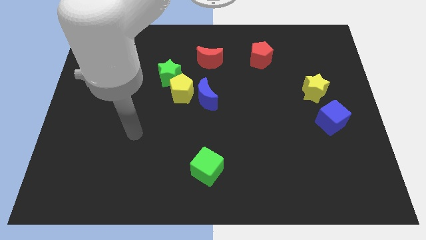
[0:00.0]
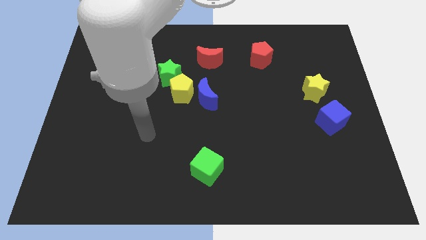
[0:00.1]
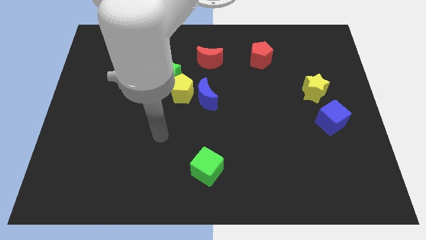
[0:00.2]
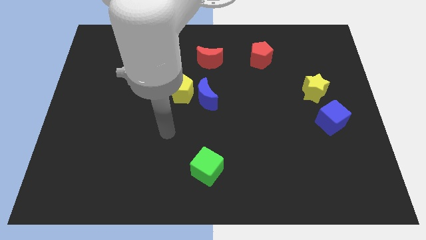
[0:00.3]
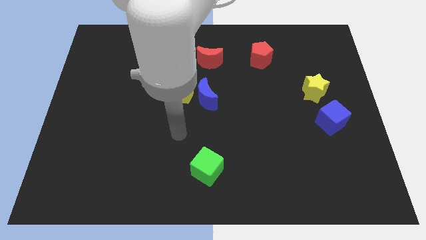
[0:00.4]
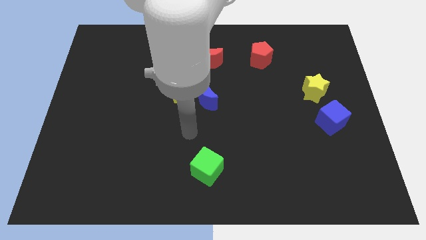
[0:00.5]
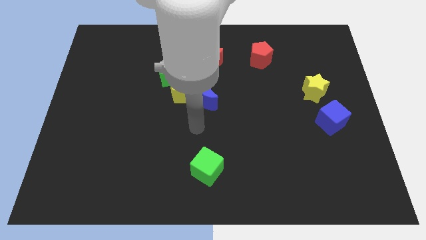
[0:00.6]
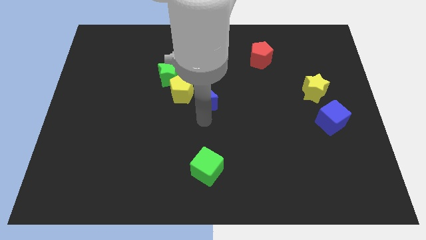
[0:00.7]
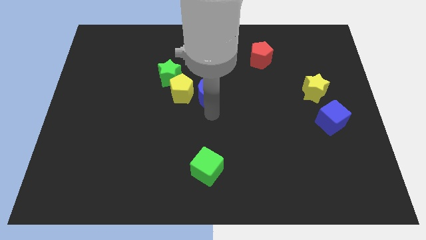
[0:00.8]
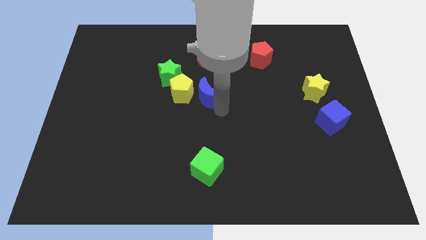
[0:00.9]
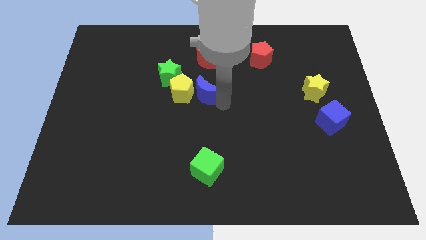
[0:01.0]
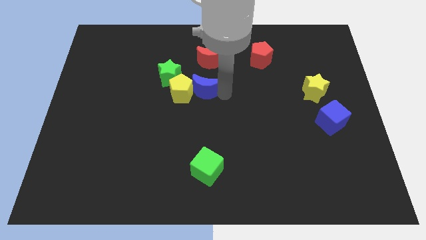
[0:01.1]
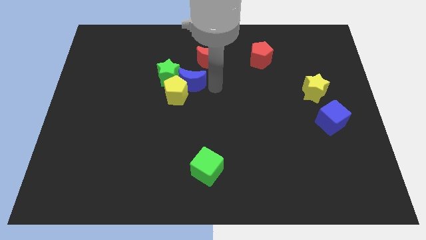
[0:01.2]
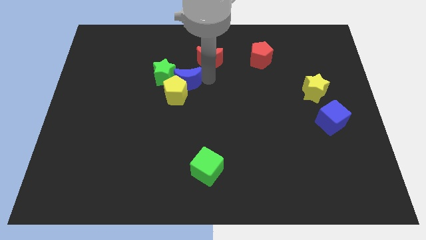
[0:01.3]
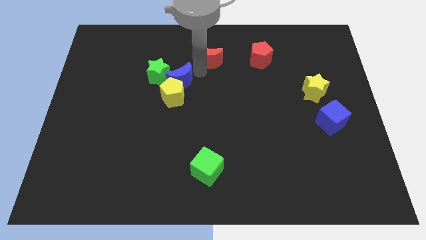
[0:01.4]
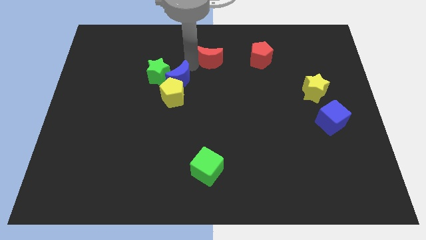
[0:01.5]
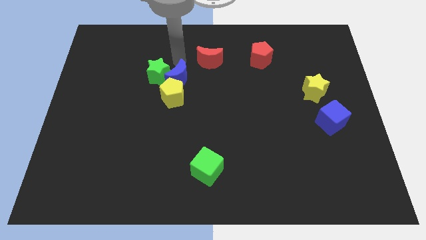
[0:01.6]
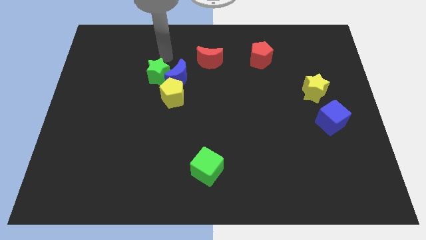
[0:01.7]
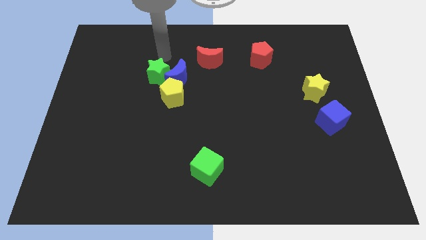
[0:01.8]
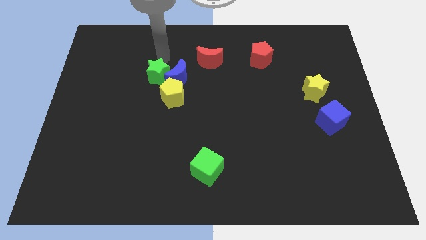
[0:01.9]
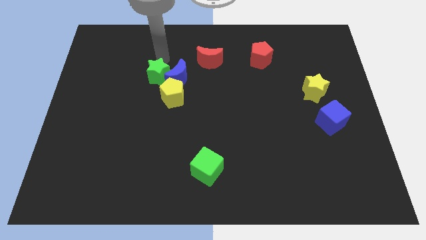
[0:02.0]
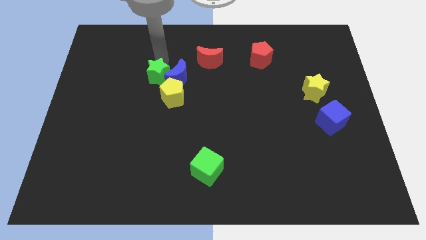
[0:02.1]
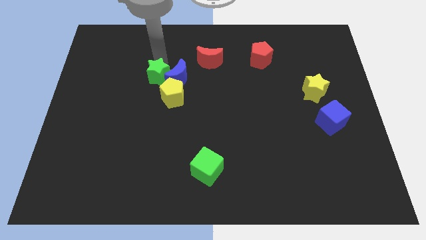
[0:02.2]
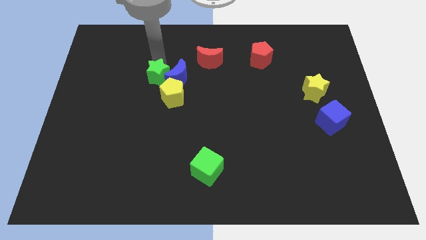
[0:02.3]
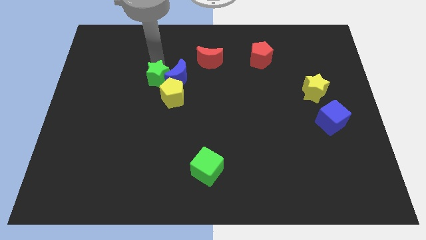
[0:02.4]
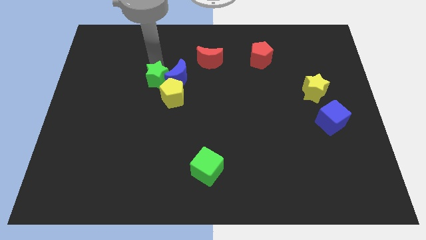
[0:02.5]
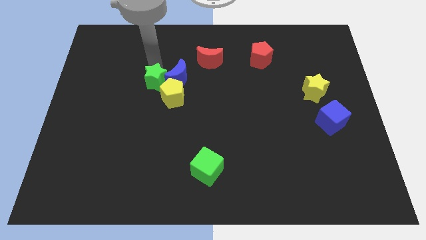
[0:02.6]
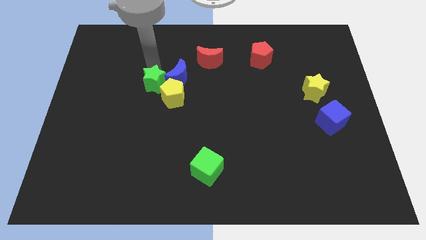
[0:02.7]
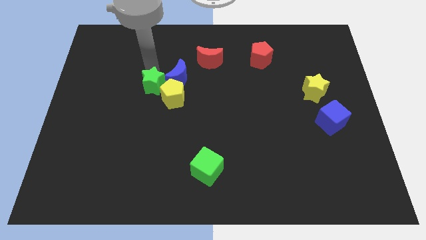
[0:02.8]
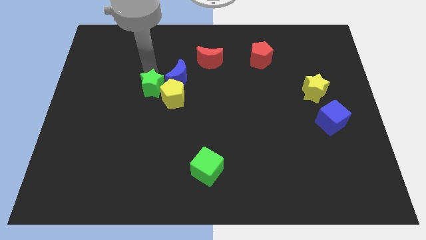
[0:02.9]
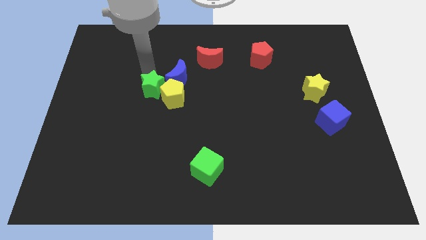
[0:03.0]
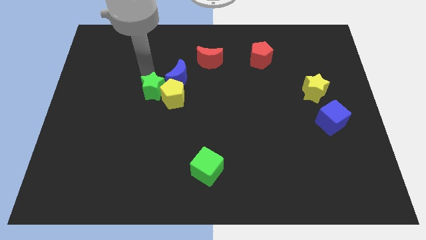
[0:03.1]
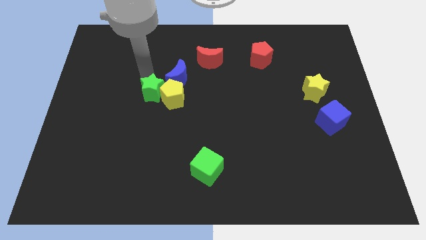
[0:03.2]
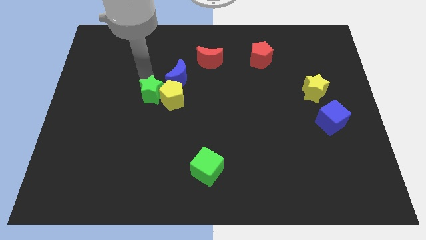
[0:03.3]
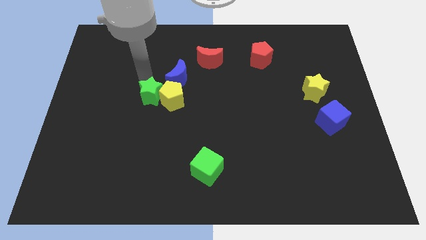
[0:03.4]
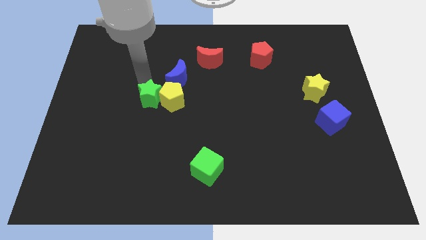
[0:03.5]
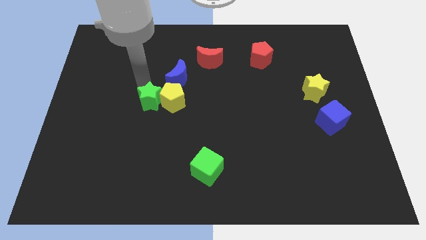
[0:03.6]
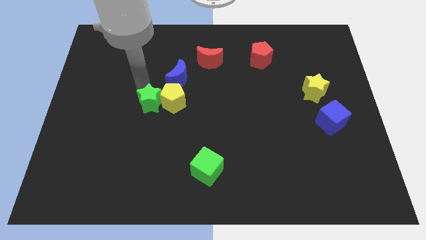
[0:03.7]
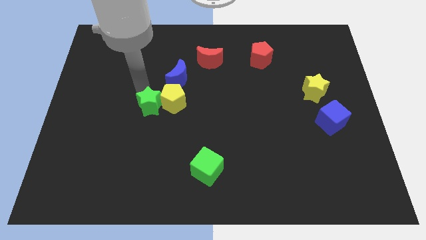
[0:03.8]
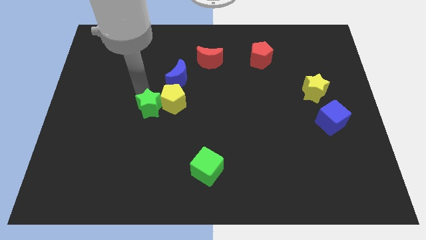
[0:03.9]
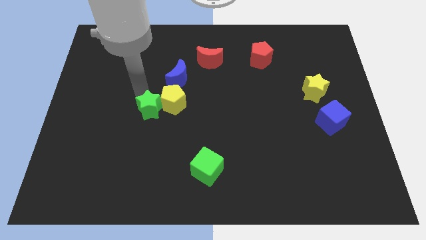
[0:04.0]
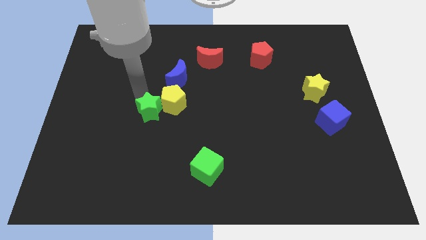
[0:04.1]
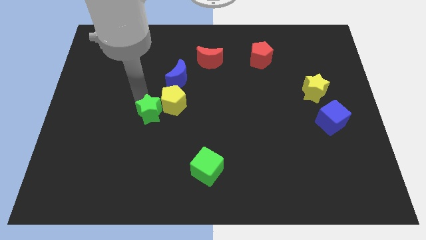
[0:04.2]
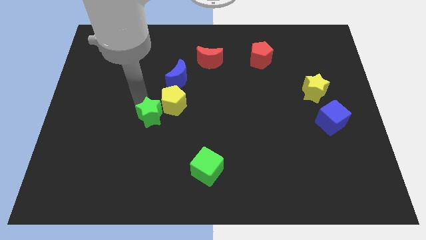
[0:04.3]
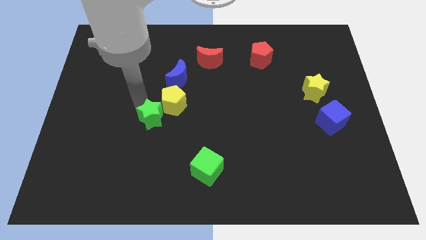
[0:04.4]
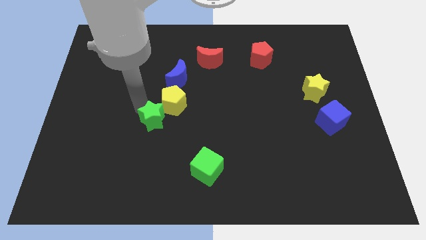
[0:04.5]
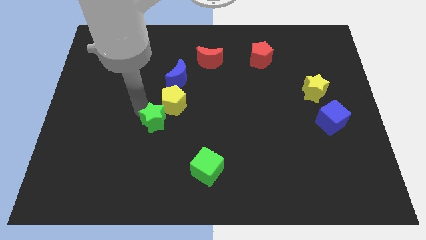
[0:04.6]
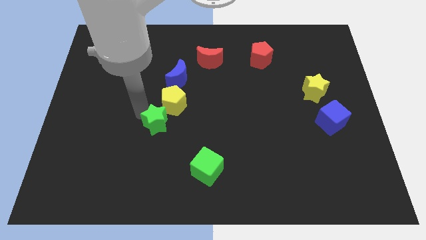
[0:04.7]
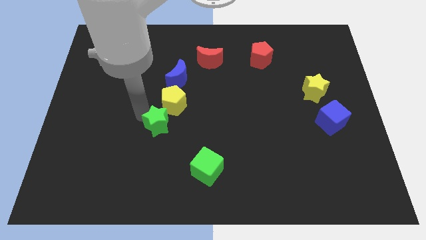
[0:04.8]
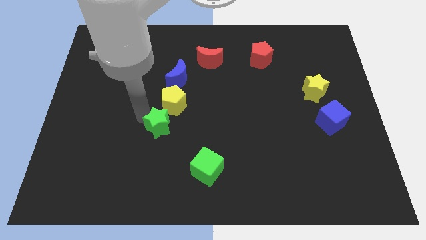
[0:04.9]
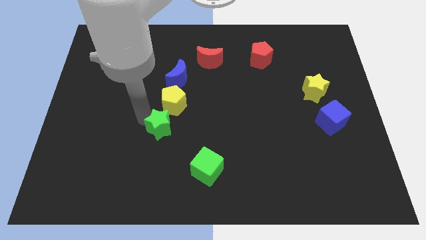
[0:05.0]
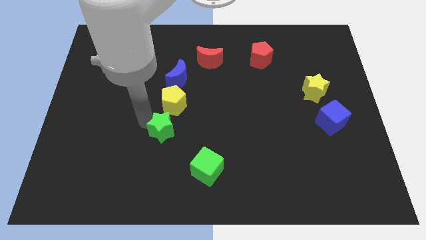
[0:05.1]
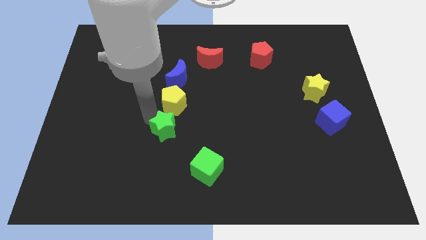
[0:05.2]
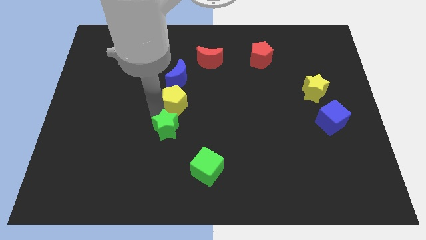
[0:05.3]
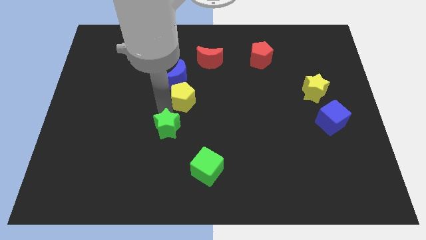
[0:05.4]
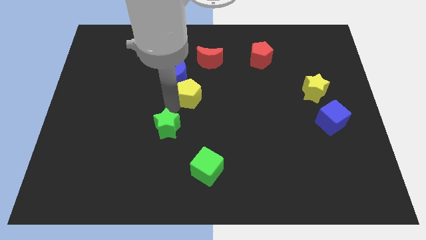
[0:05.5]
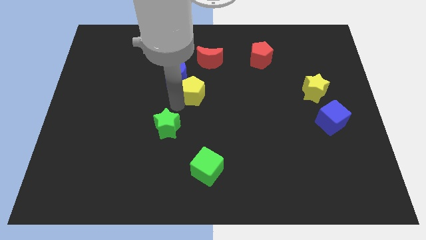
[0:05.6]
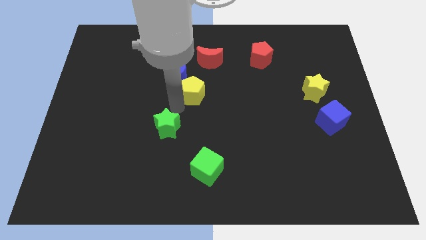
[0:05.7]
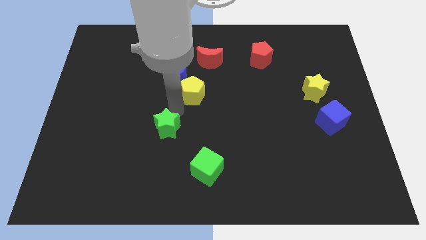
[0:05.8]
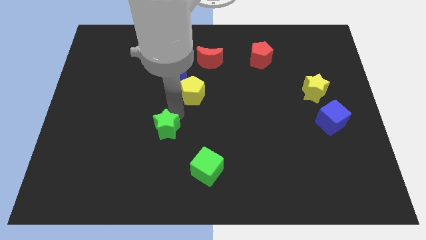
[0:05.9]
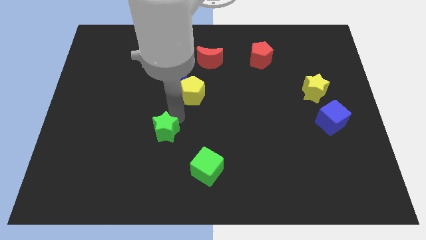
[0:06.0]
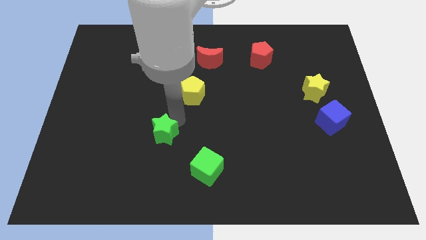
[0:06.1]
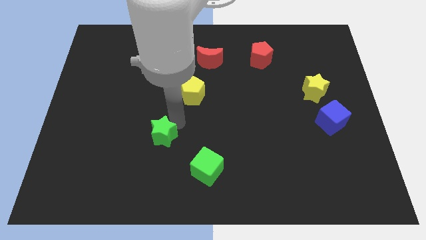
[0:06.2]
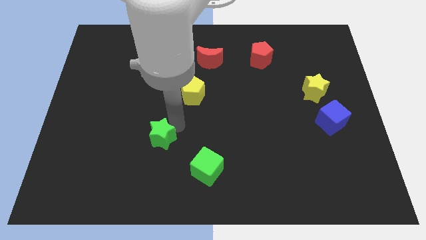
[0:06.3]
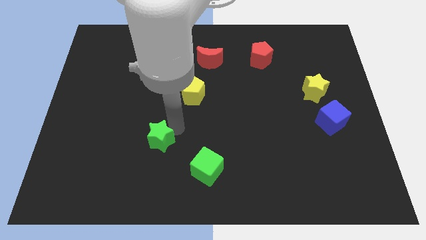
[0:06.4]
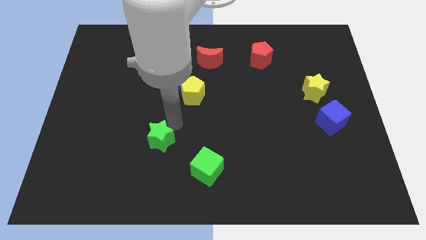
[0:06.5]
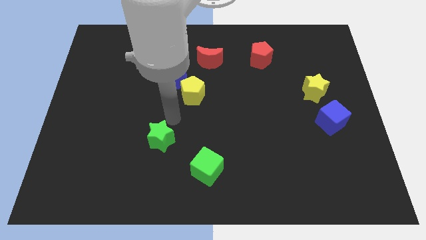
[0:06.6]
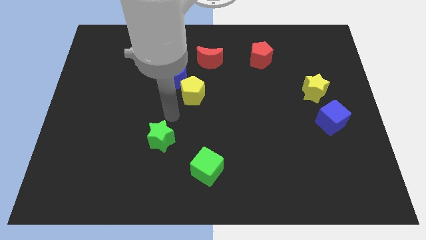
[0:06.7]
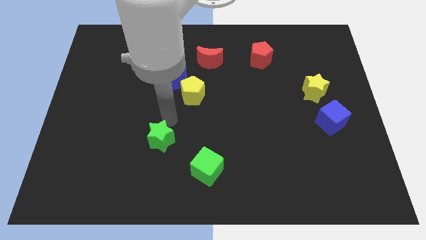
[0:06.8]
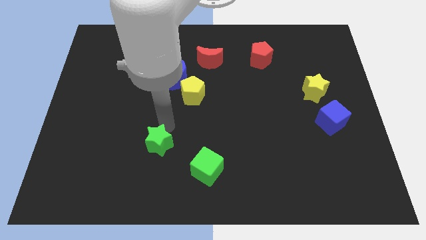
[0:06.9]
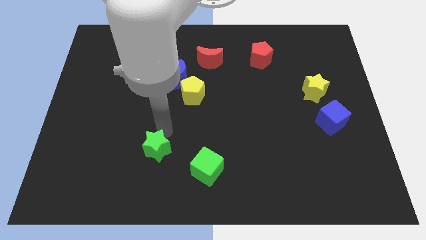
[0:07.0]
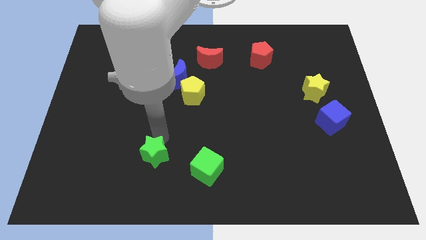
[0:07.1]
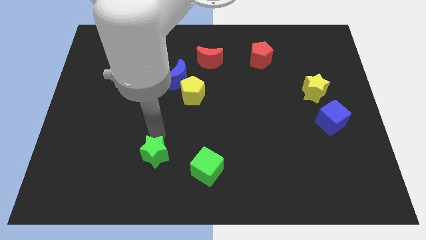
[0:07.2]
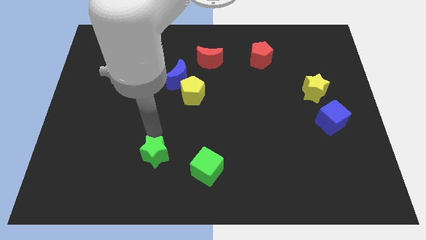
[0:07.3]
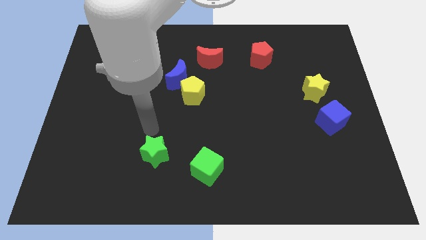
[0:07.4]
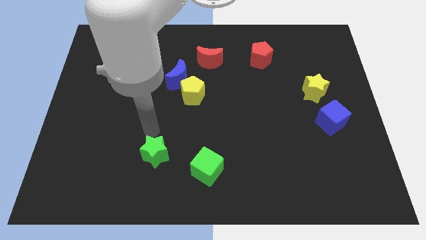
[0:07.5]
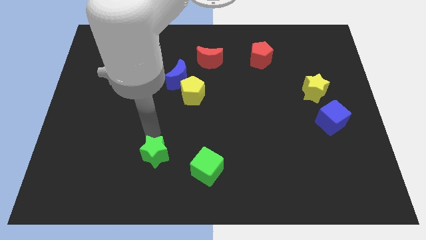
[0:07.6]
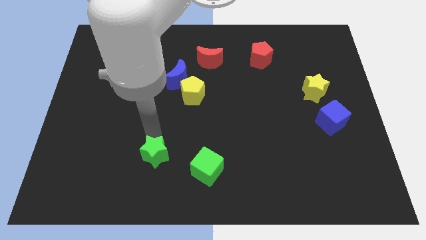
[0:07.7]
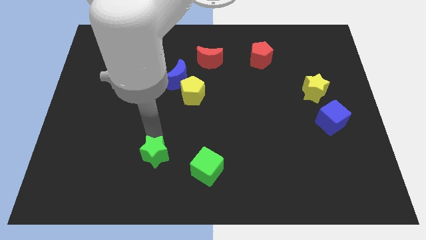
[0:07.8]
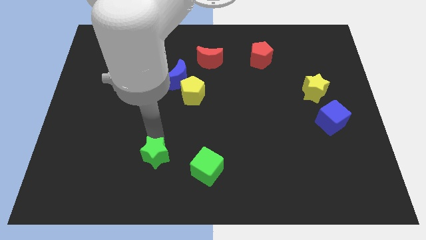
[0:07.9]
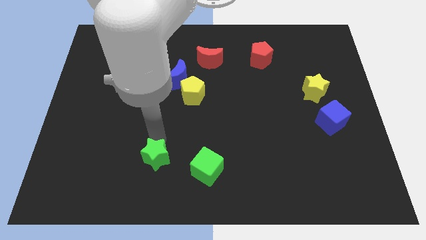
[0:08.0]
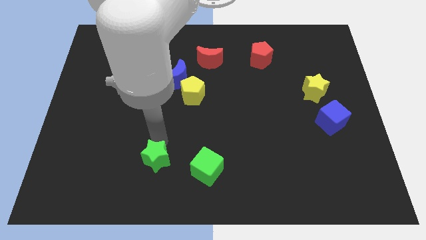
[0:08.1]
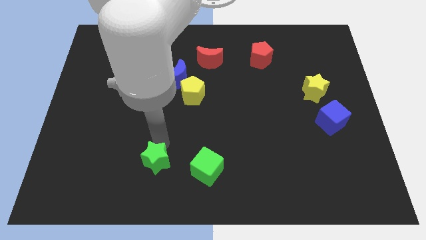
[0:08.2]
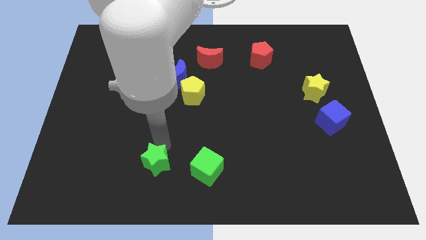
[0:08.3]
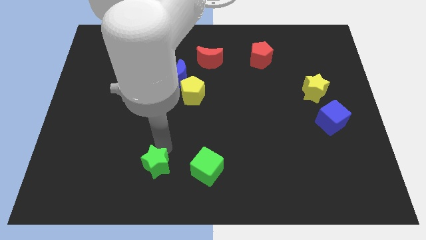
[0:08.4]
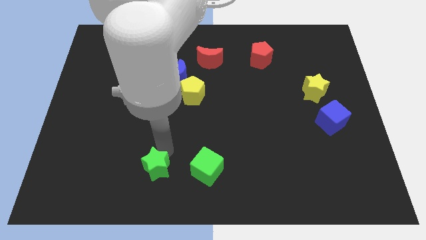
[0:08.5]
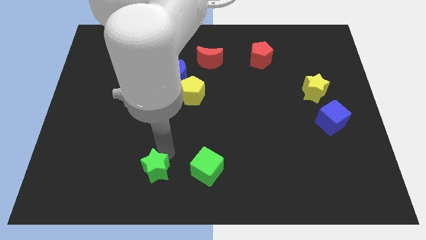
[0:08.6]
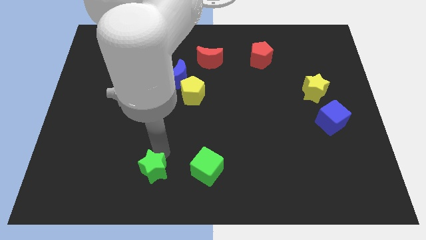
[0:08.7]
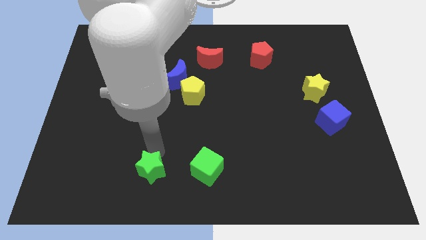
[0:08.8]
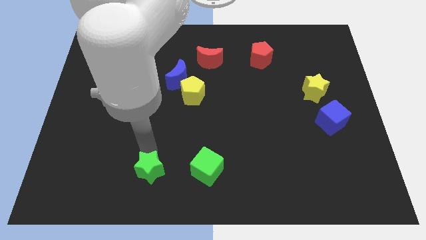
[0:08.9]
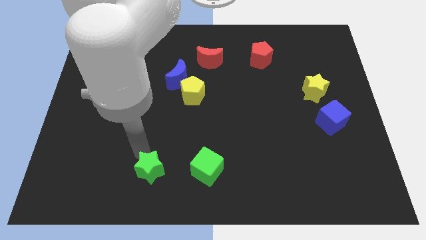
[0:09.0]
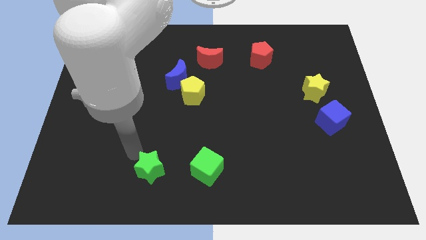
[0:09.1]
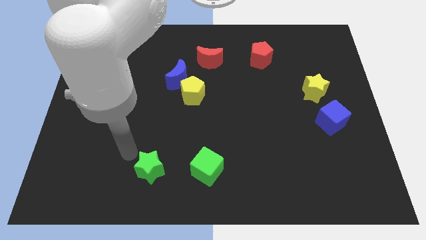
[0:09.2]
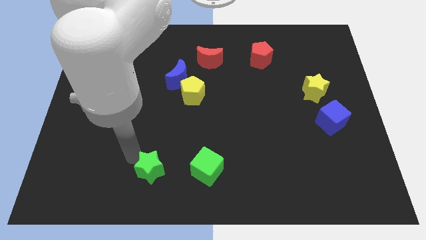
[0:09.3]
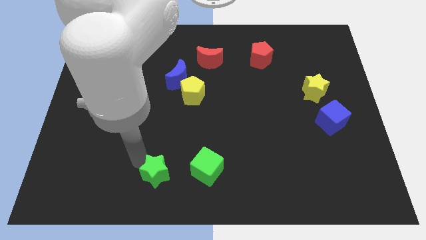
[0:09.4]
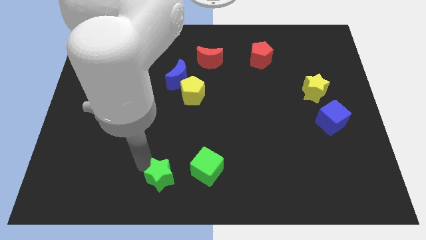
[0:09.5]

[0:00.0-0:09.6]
put the green star to the bottom
